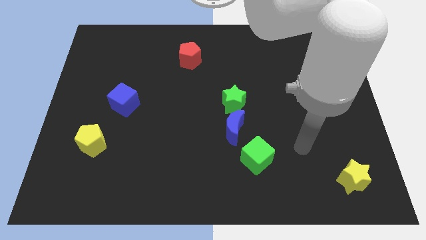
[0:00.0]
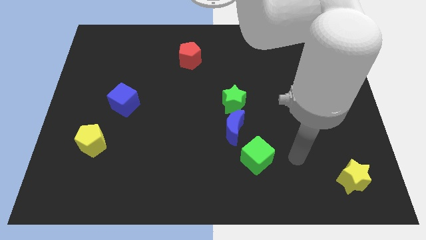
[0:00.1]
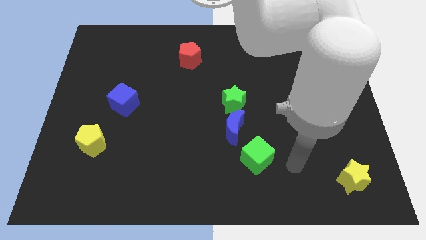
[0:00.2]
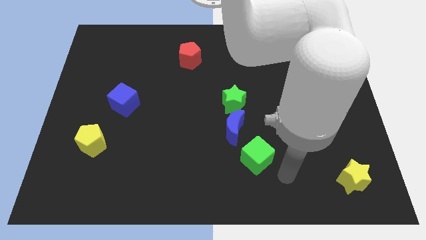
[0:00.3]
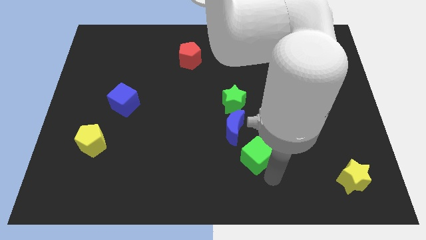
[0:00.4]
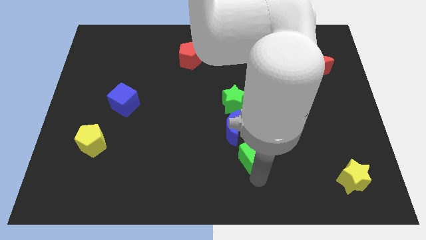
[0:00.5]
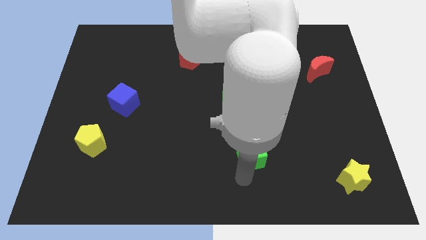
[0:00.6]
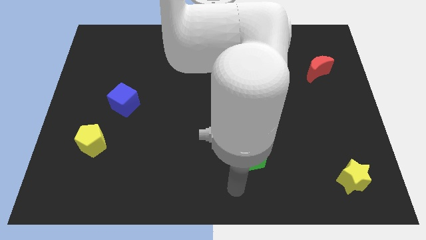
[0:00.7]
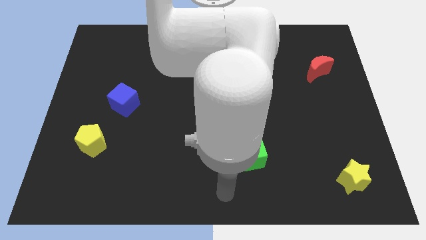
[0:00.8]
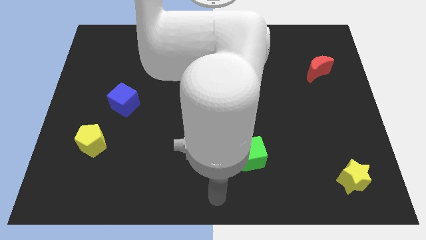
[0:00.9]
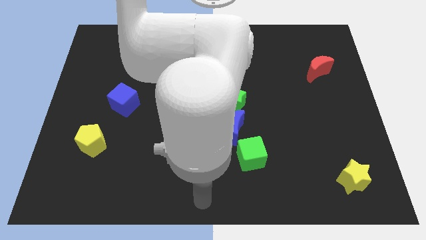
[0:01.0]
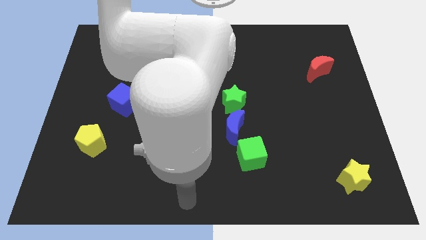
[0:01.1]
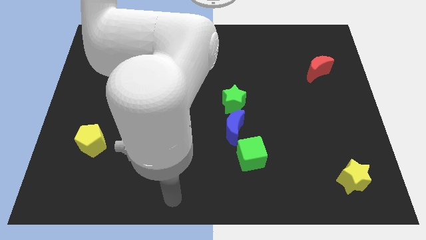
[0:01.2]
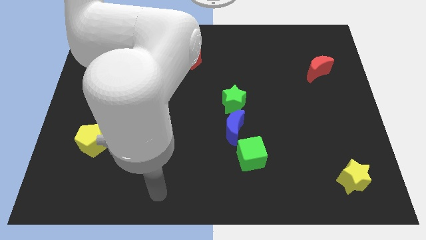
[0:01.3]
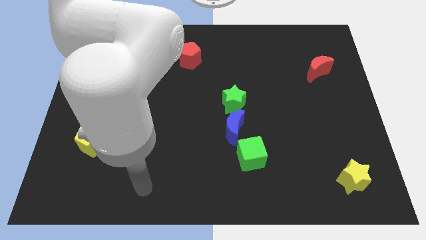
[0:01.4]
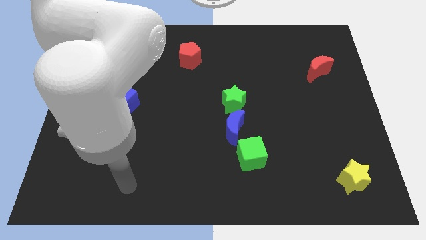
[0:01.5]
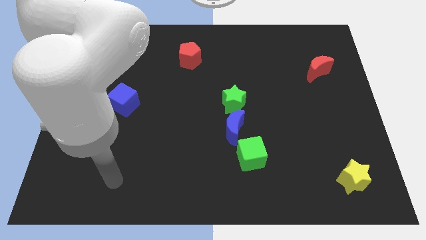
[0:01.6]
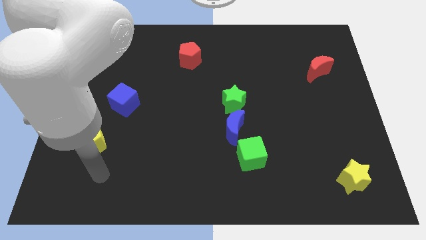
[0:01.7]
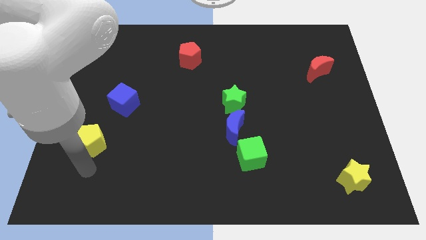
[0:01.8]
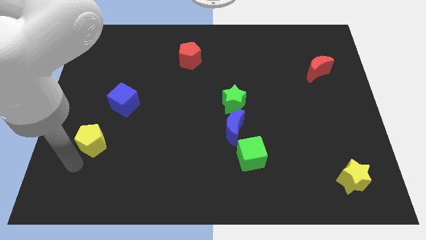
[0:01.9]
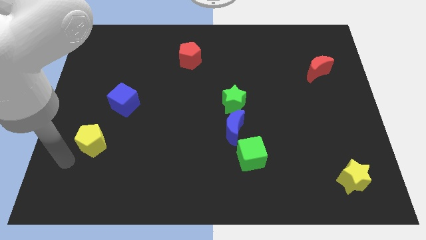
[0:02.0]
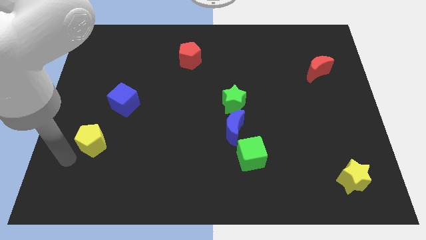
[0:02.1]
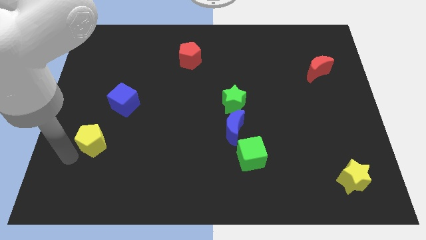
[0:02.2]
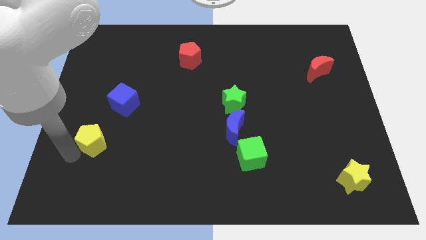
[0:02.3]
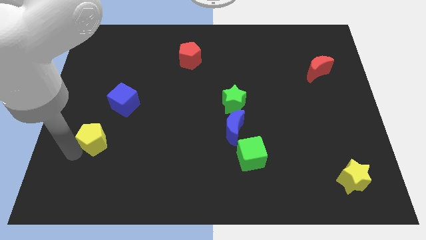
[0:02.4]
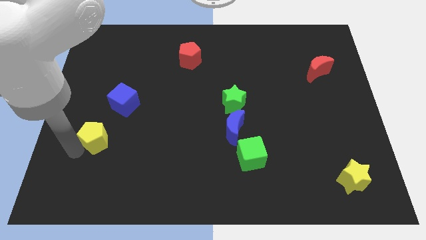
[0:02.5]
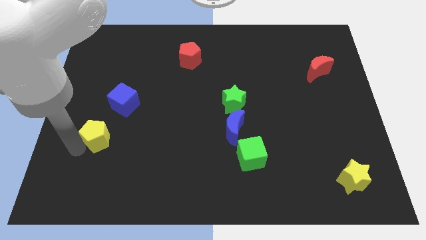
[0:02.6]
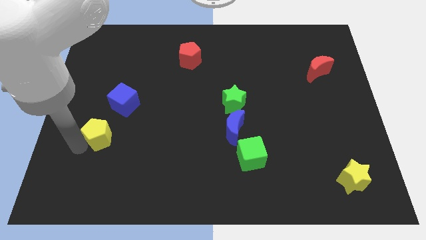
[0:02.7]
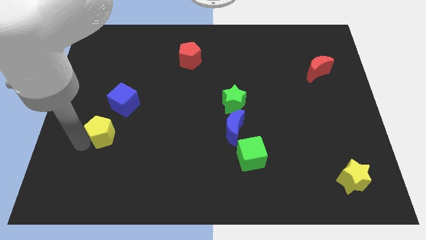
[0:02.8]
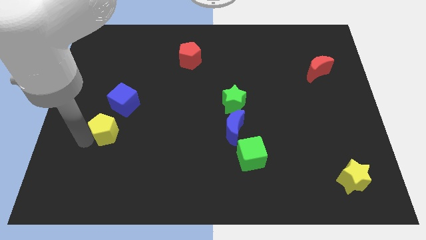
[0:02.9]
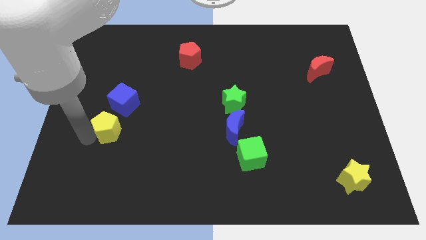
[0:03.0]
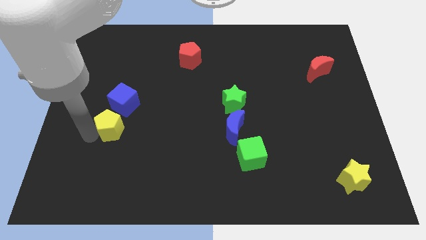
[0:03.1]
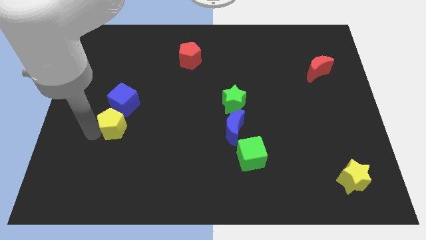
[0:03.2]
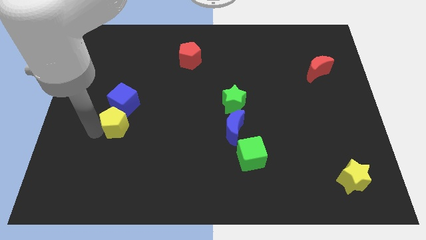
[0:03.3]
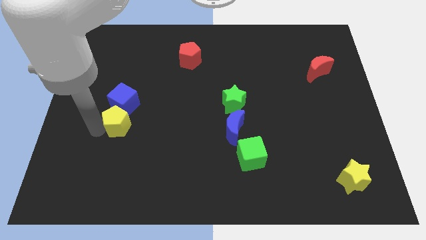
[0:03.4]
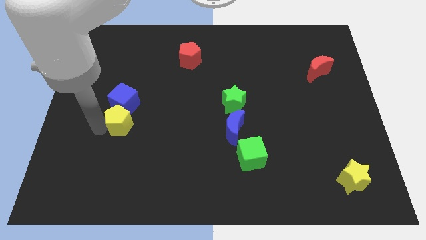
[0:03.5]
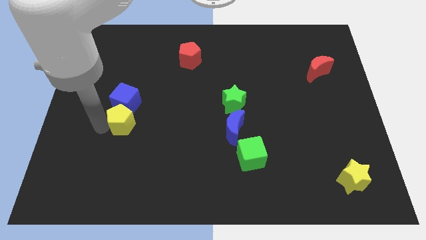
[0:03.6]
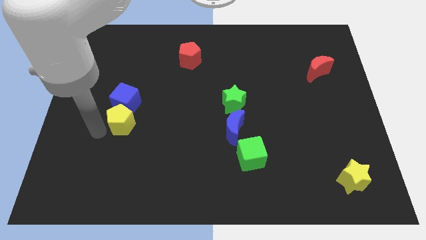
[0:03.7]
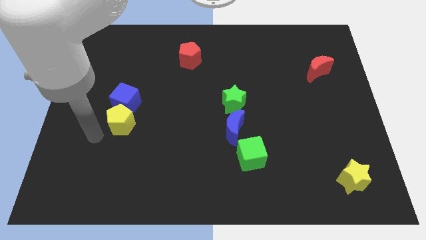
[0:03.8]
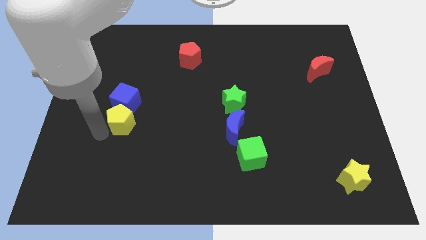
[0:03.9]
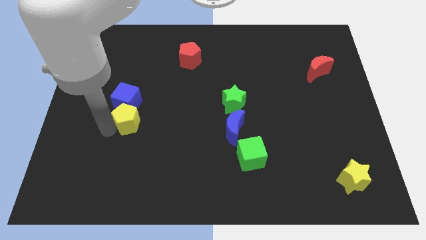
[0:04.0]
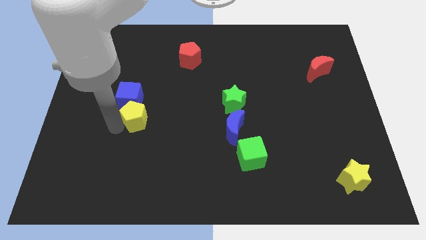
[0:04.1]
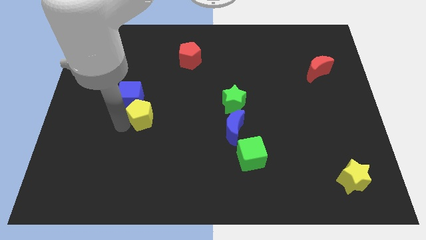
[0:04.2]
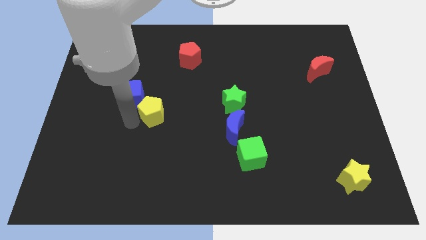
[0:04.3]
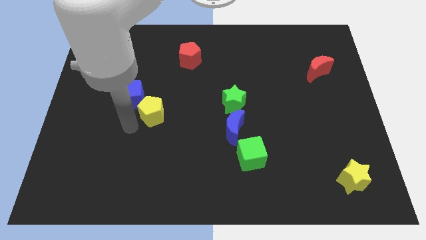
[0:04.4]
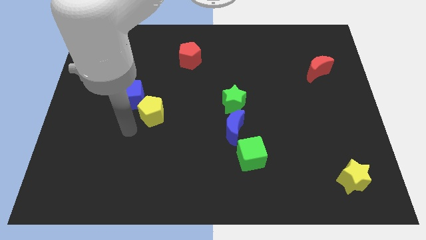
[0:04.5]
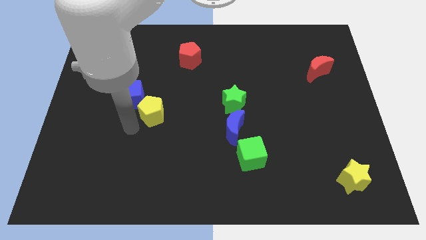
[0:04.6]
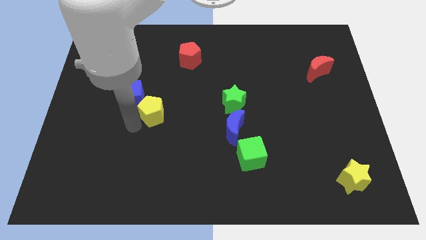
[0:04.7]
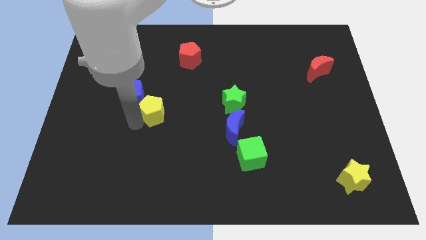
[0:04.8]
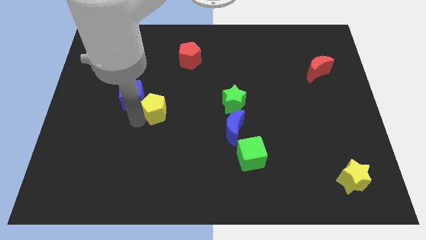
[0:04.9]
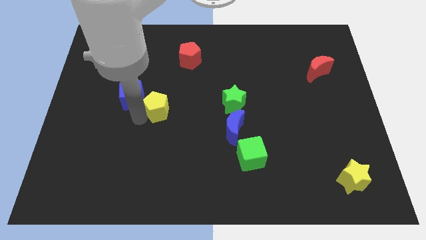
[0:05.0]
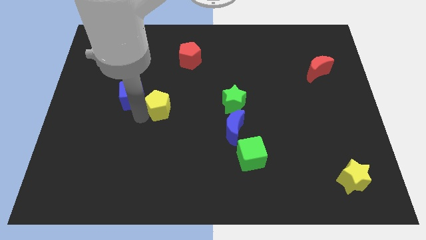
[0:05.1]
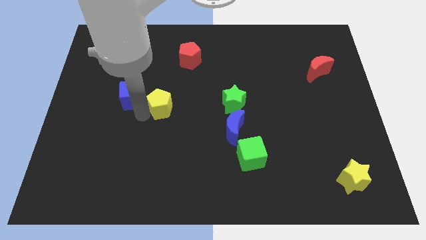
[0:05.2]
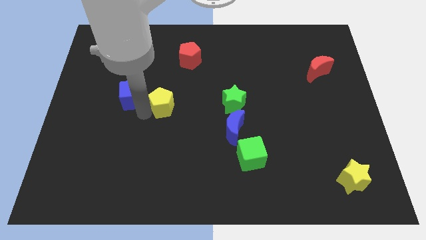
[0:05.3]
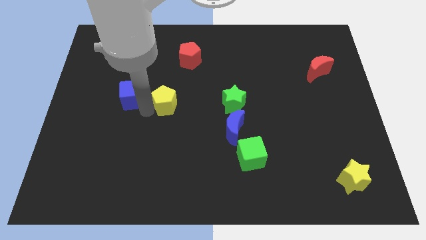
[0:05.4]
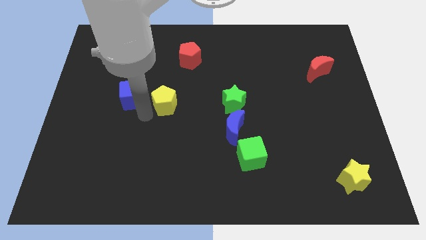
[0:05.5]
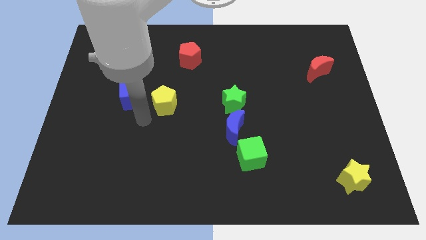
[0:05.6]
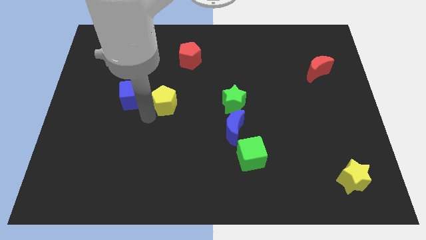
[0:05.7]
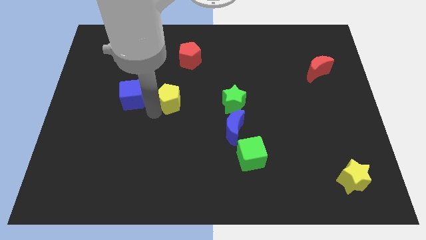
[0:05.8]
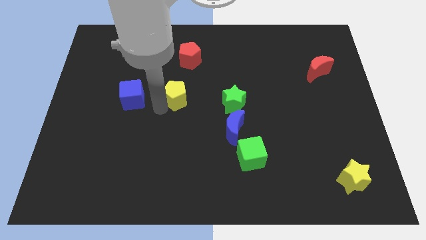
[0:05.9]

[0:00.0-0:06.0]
slide the yellow pentagon upwards and right

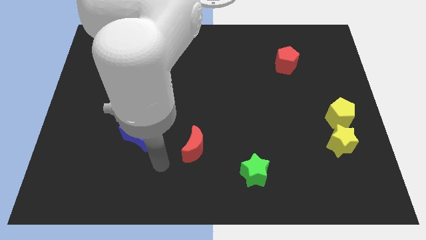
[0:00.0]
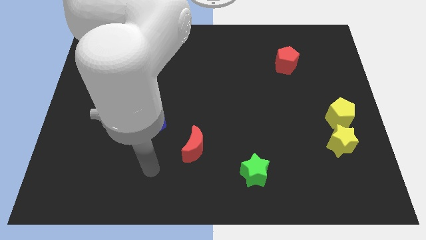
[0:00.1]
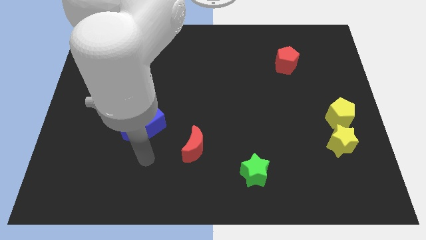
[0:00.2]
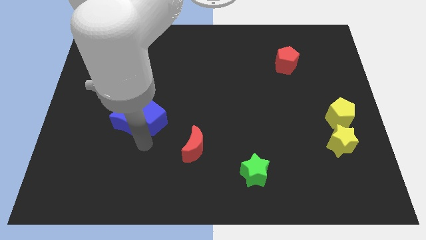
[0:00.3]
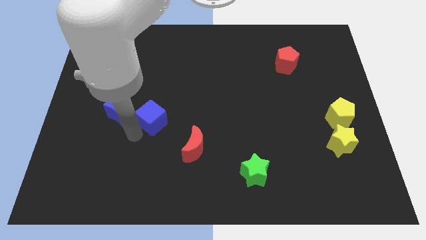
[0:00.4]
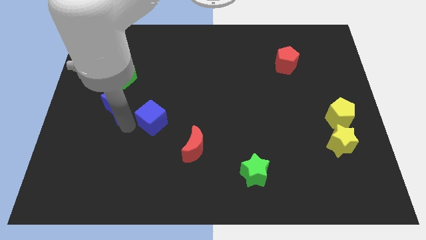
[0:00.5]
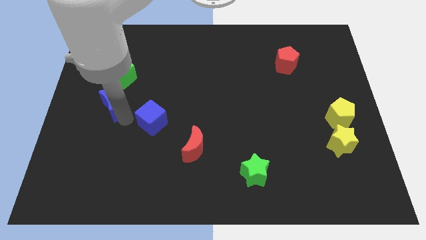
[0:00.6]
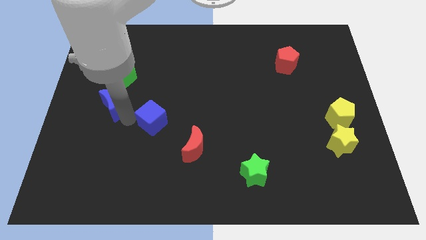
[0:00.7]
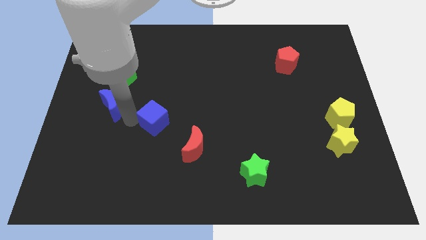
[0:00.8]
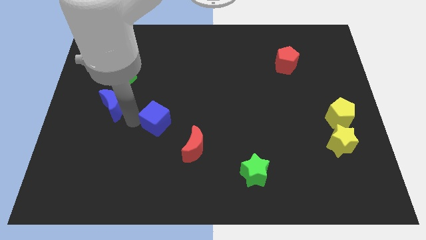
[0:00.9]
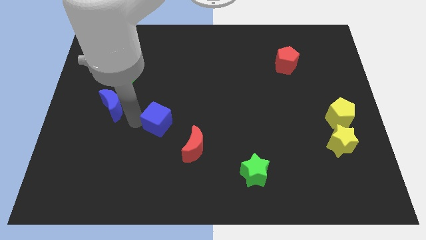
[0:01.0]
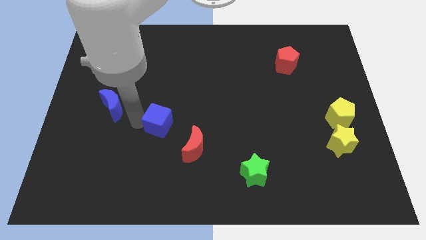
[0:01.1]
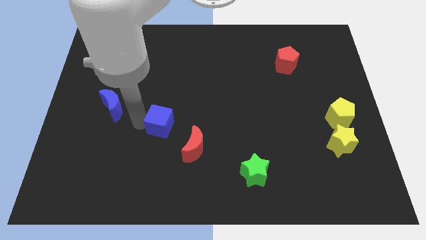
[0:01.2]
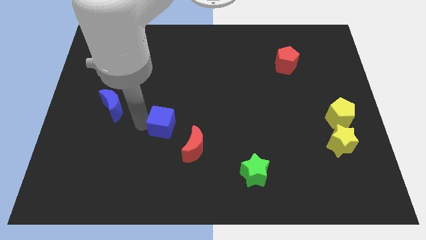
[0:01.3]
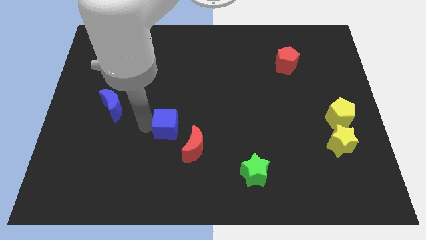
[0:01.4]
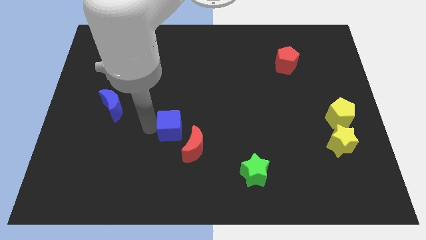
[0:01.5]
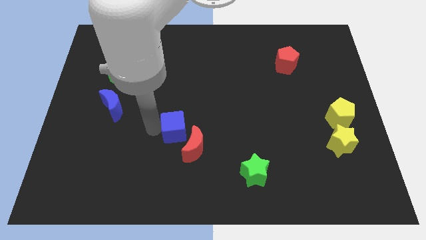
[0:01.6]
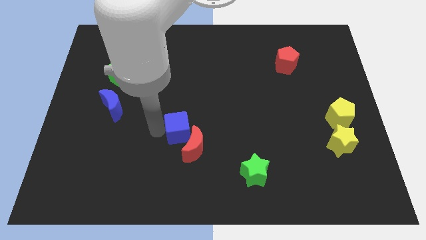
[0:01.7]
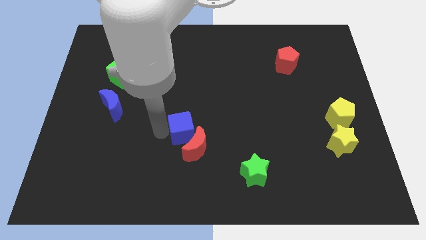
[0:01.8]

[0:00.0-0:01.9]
slightly push the blue cube to the right

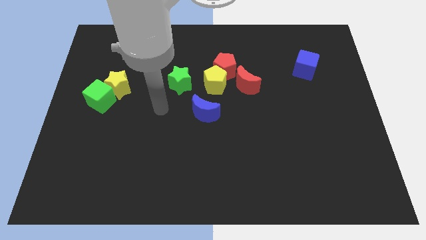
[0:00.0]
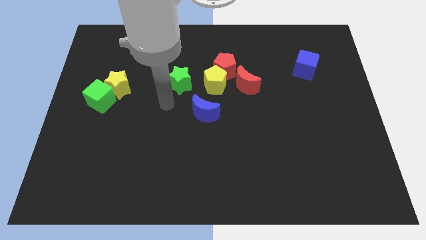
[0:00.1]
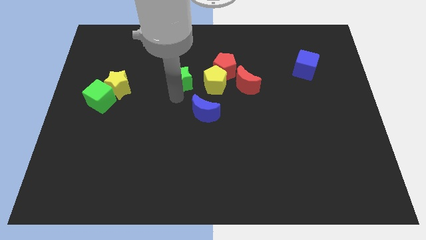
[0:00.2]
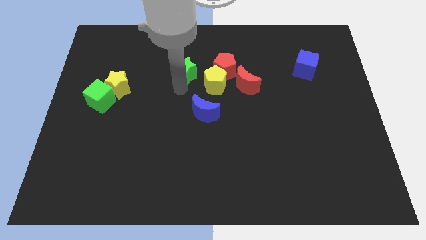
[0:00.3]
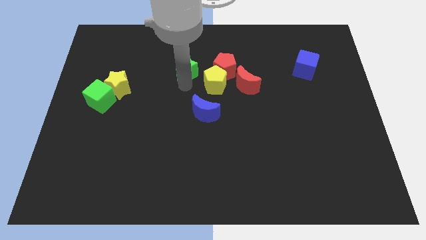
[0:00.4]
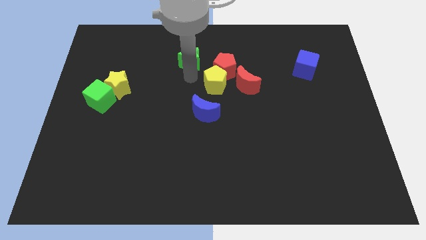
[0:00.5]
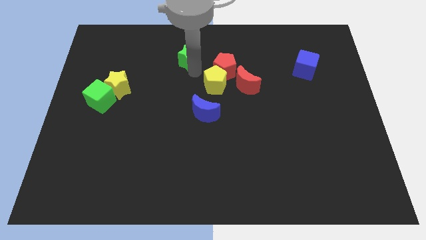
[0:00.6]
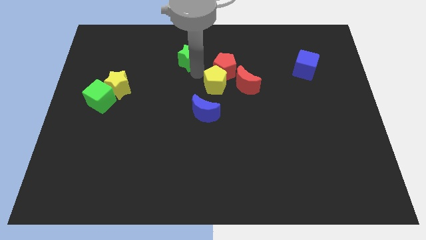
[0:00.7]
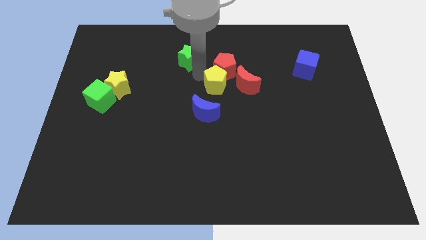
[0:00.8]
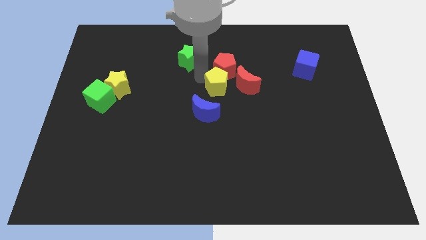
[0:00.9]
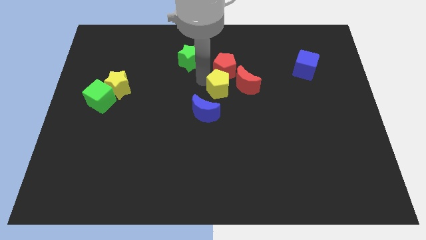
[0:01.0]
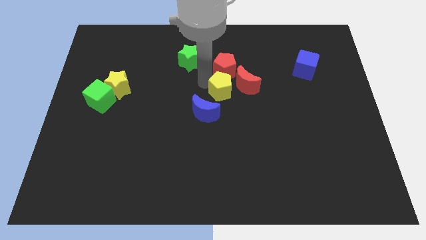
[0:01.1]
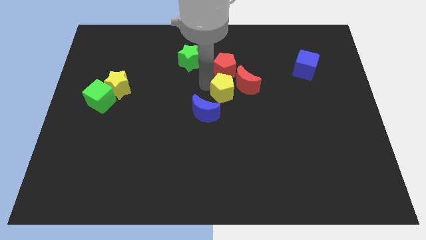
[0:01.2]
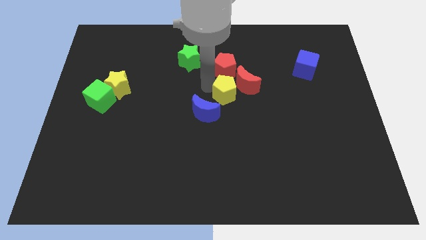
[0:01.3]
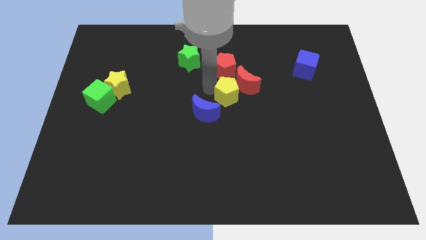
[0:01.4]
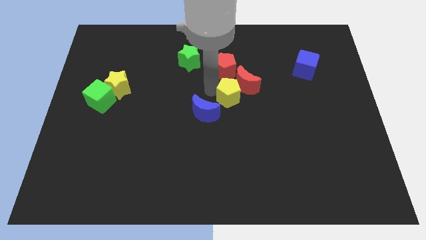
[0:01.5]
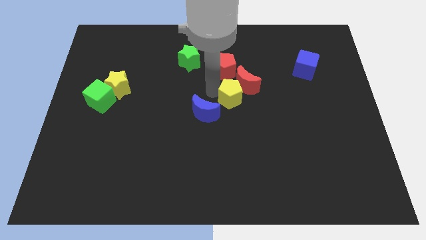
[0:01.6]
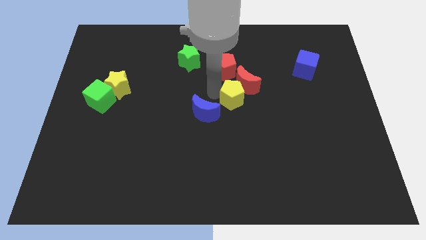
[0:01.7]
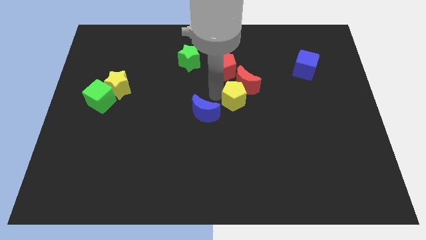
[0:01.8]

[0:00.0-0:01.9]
slightly slide the yellow pentagon downwards and to the right diagonally
